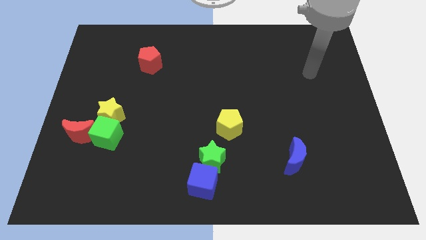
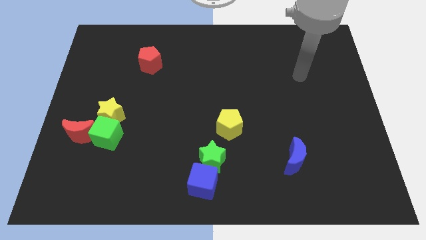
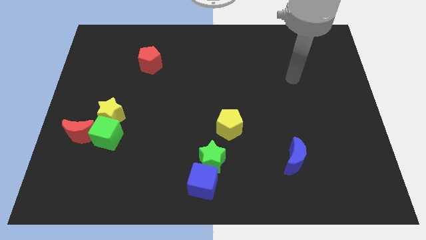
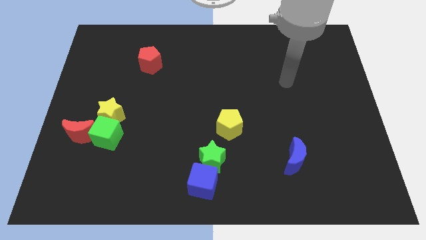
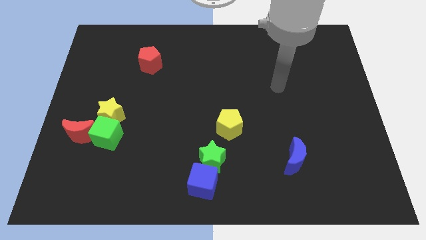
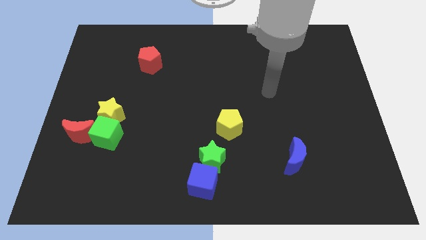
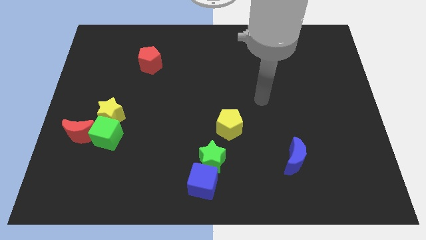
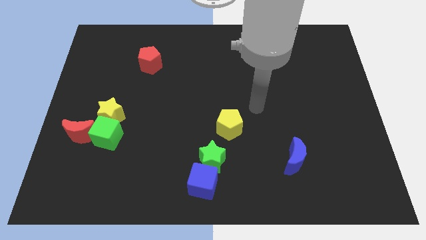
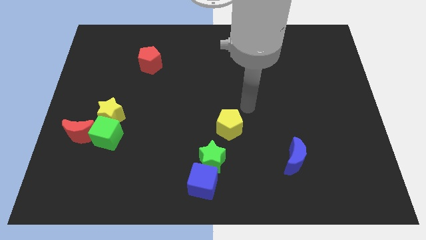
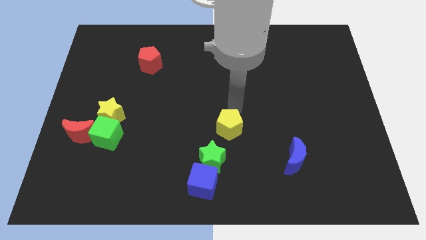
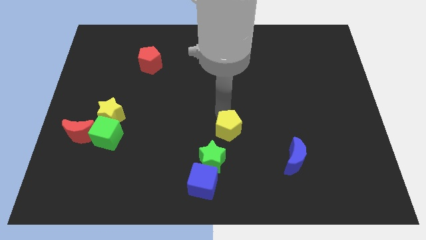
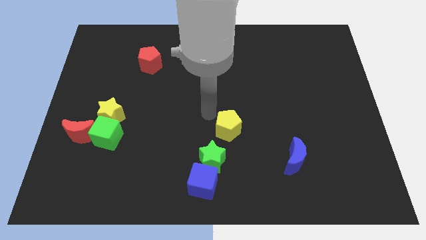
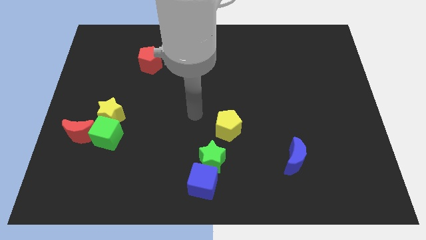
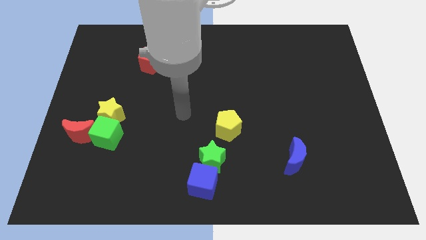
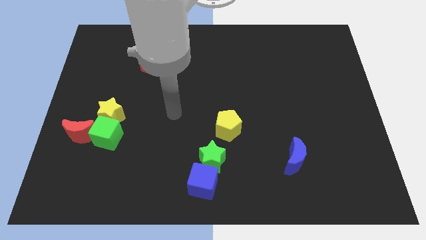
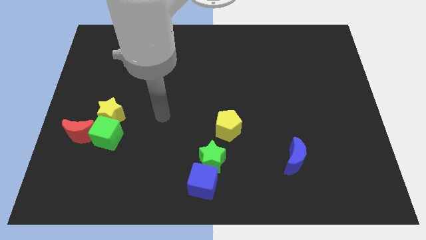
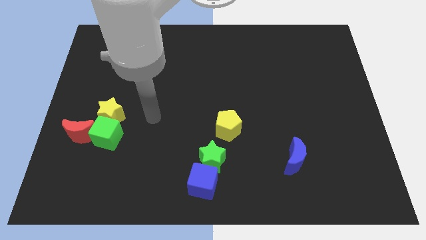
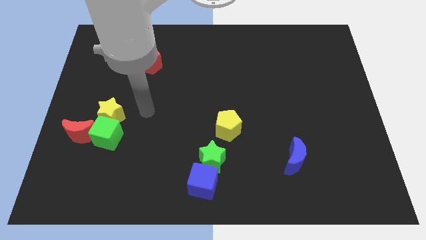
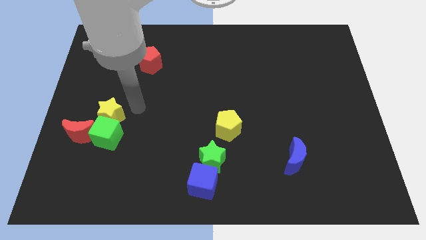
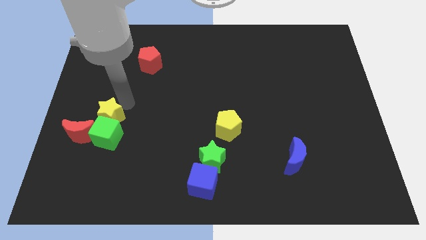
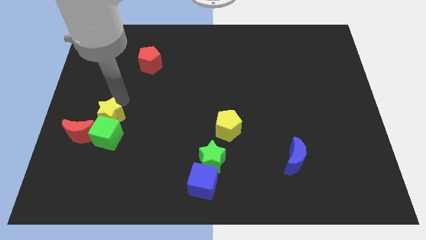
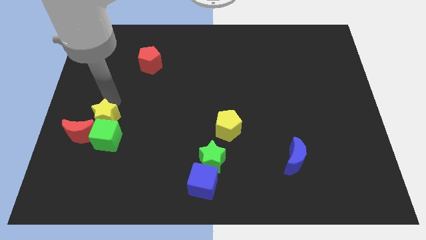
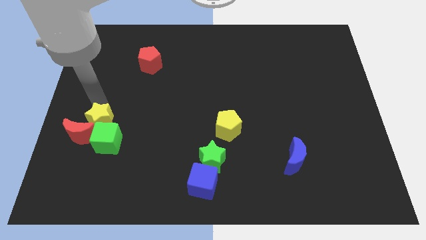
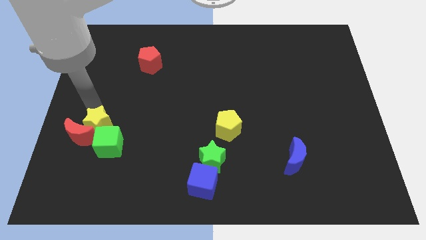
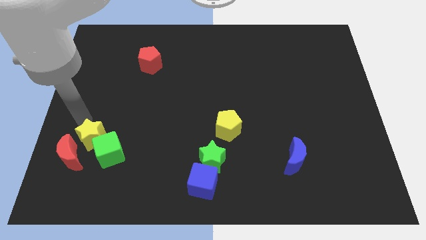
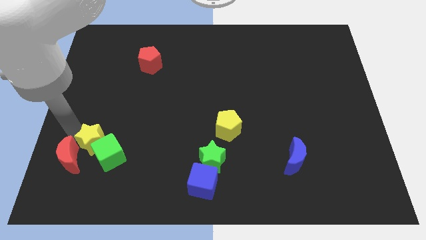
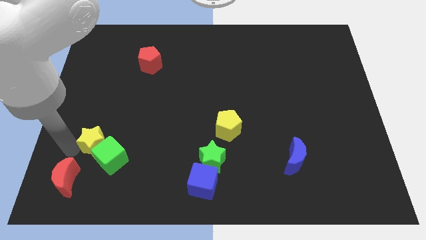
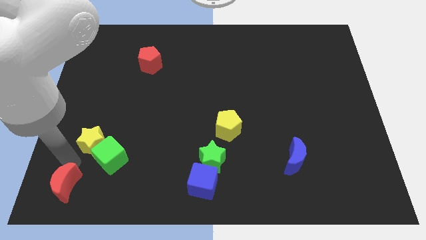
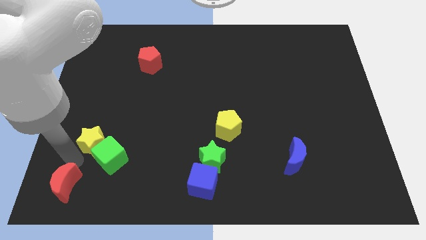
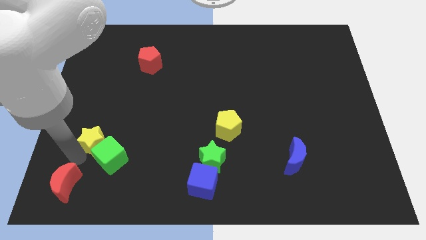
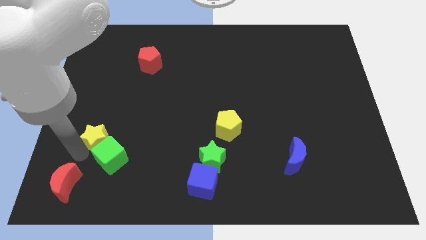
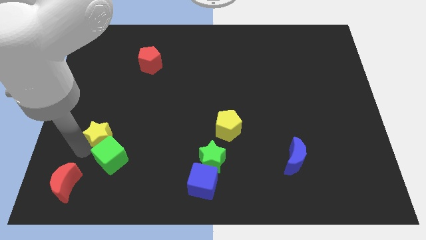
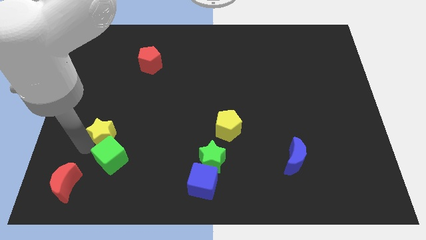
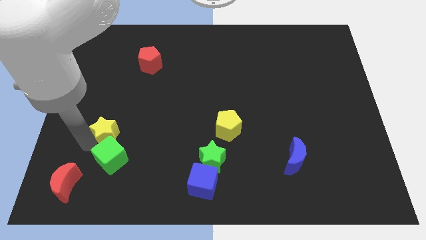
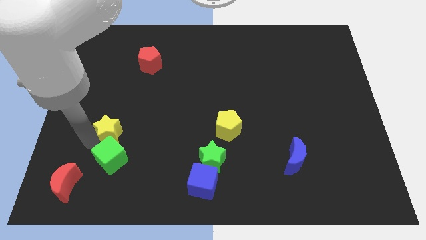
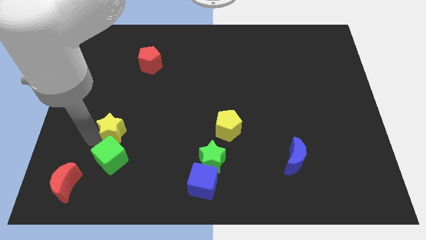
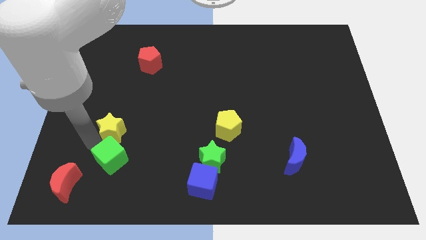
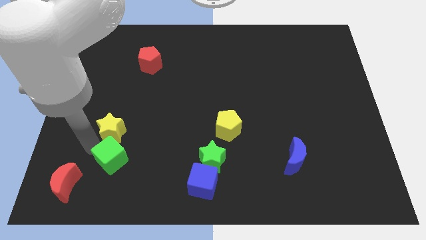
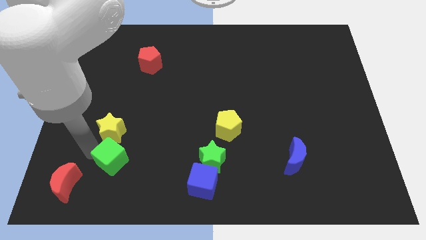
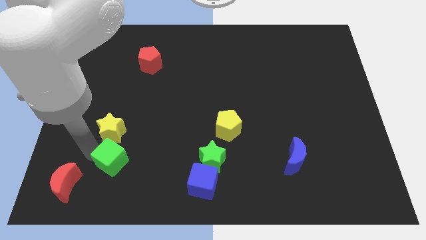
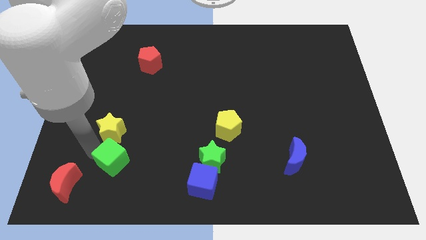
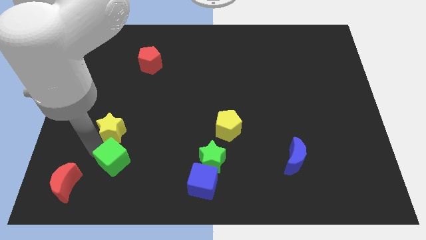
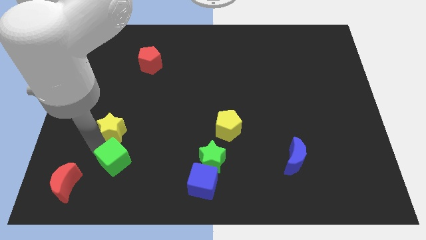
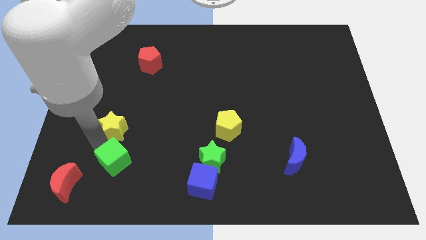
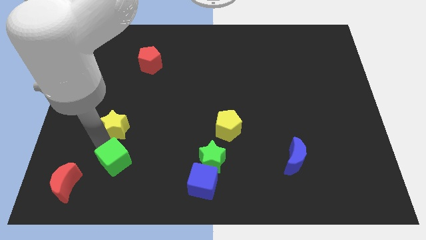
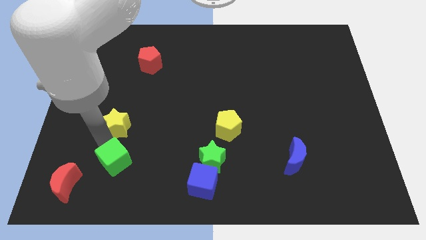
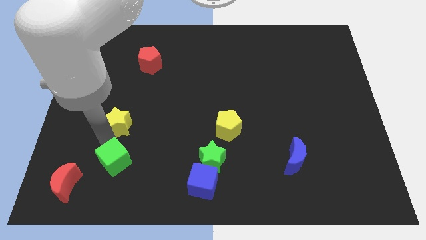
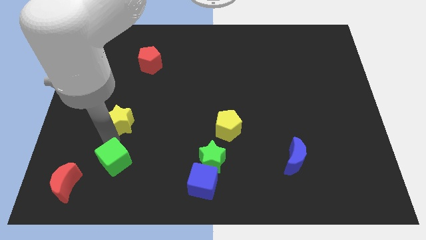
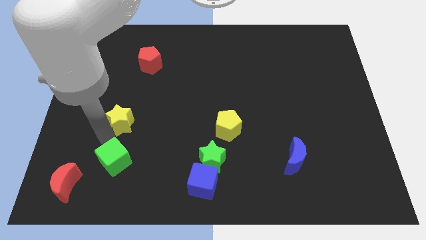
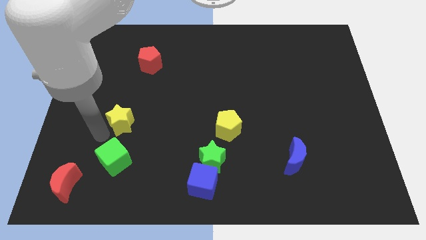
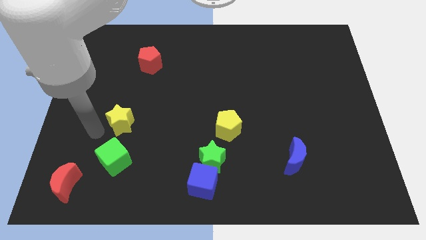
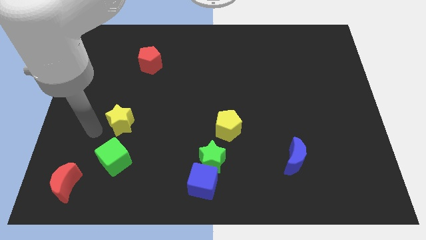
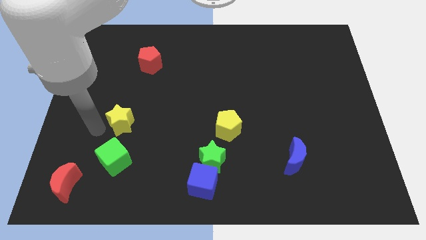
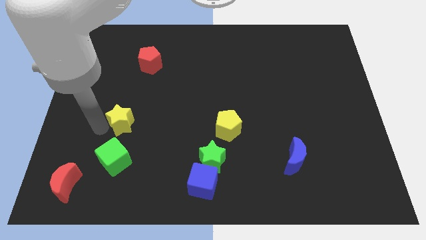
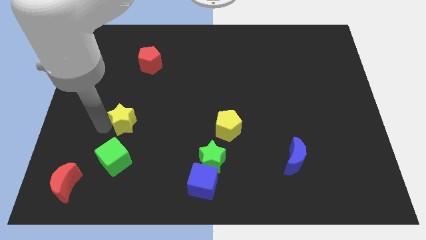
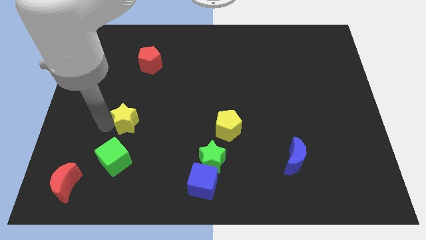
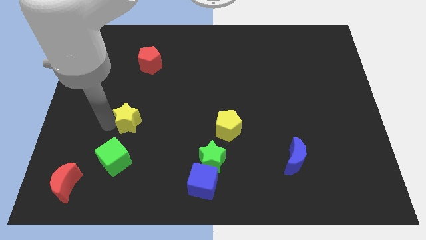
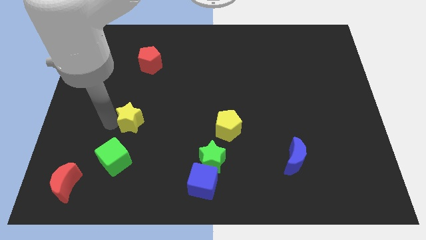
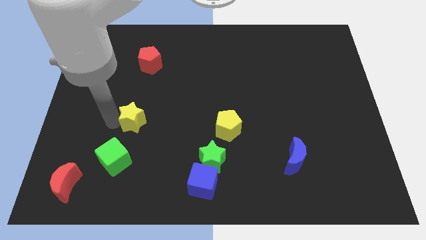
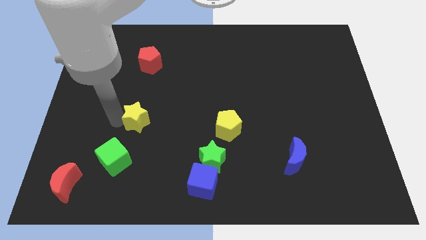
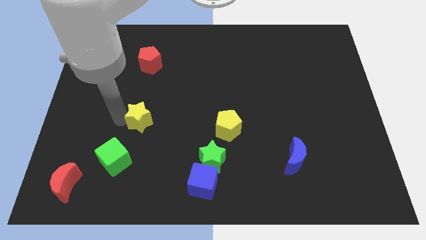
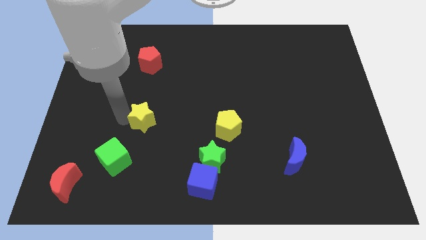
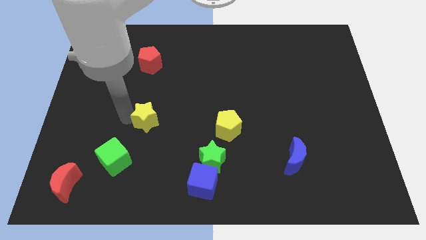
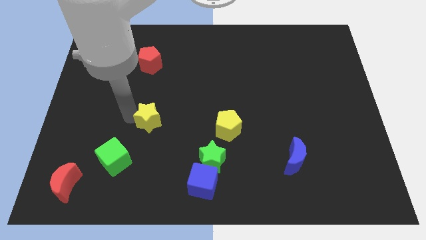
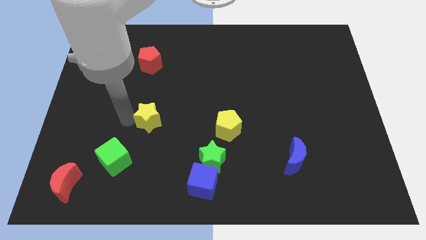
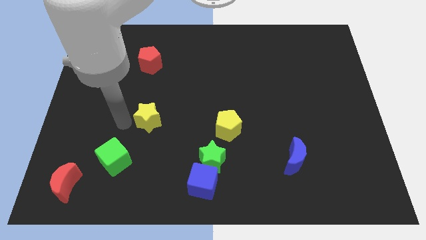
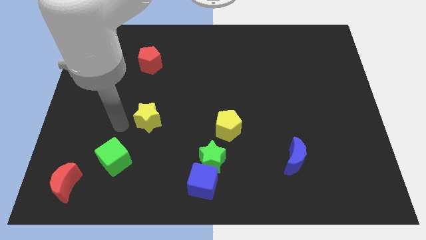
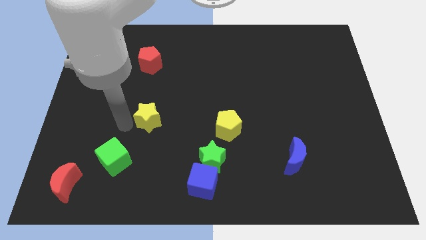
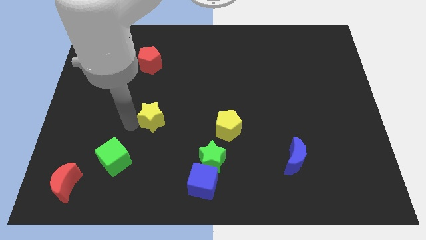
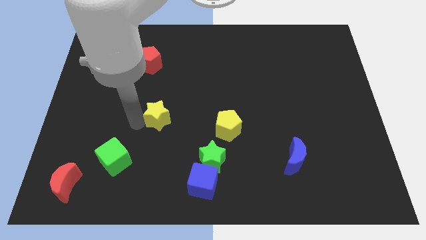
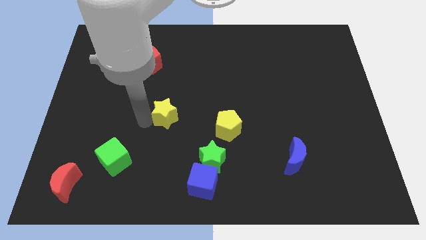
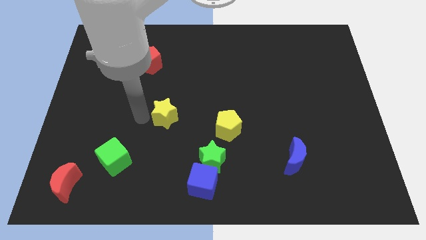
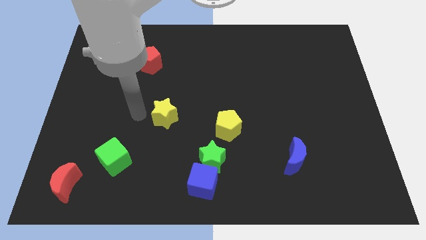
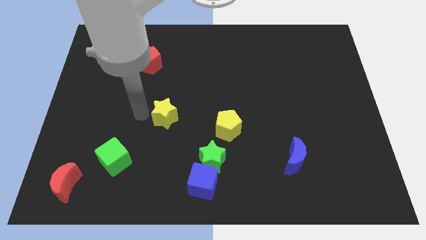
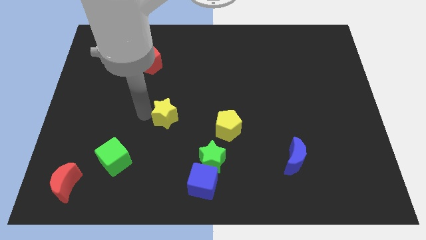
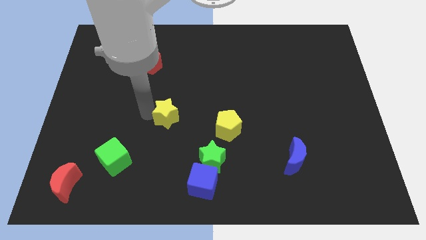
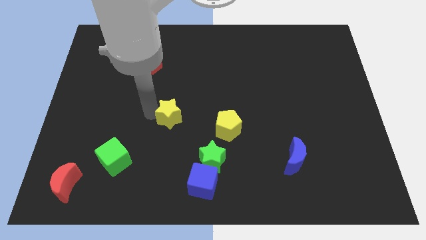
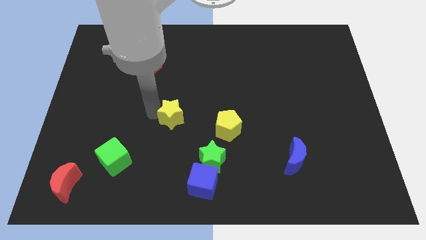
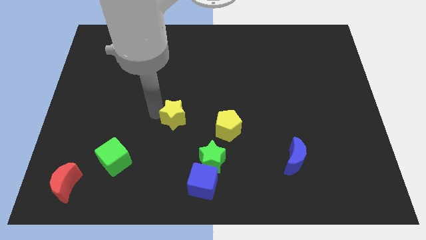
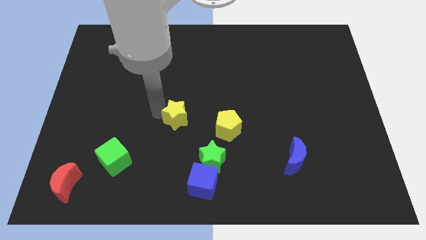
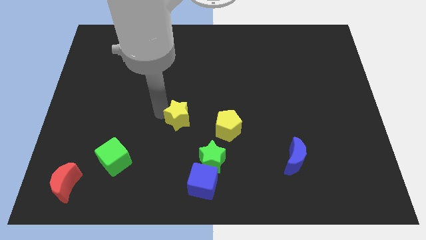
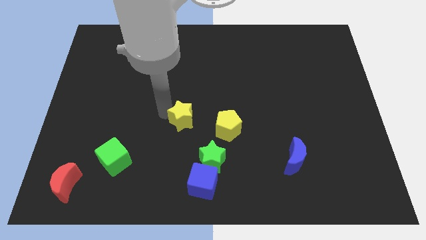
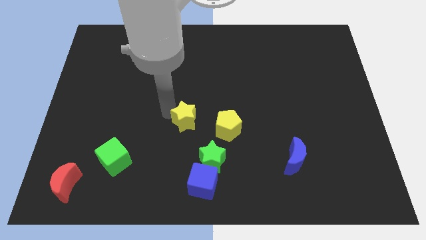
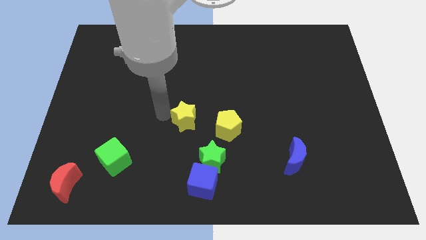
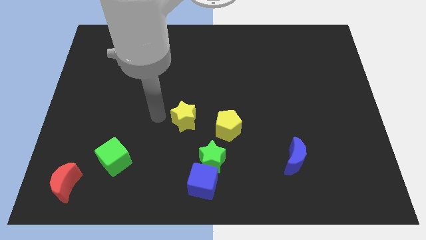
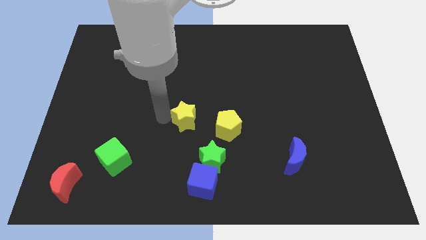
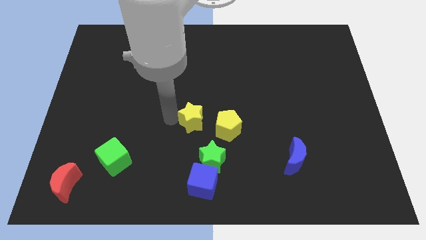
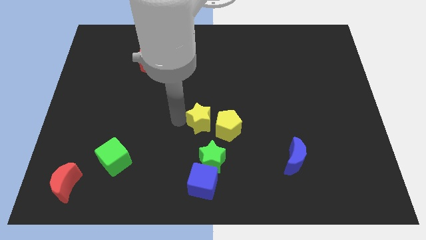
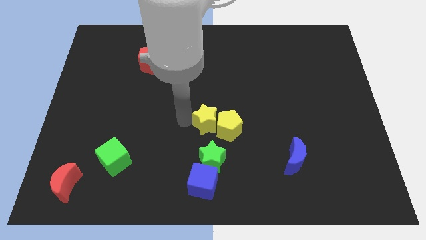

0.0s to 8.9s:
push the yellow star towards the yellow pentagon
